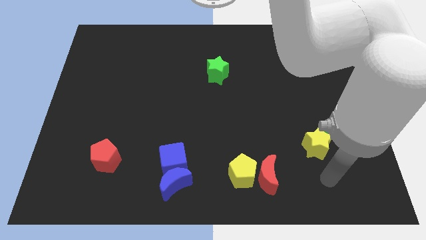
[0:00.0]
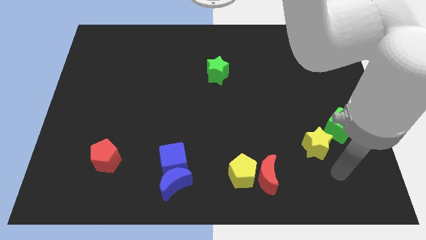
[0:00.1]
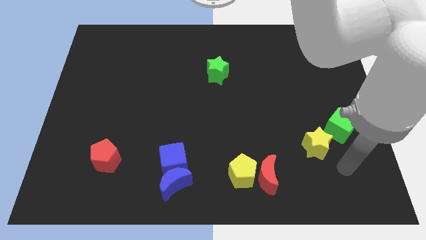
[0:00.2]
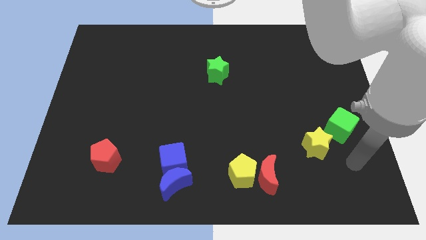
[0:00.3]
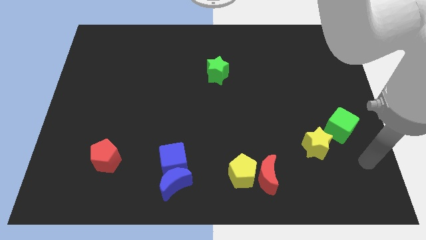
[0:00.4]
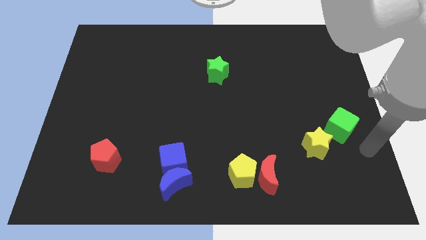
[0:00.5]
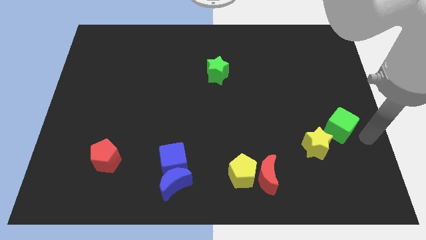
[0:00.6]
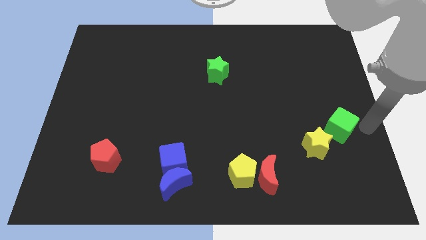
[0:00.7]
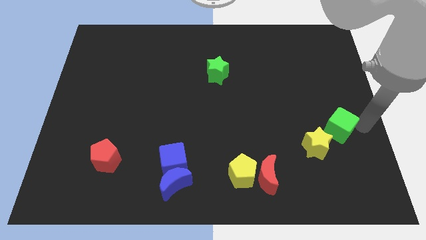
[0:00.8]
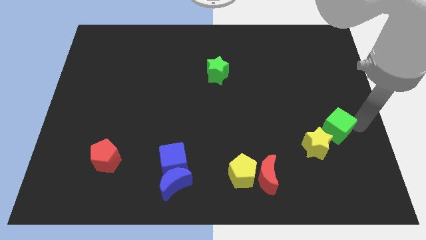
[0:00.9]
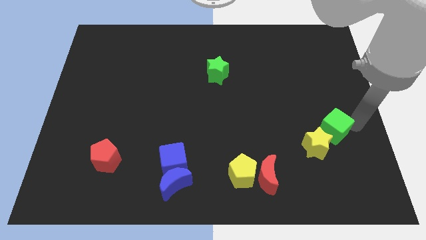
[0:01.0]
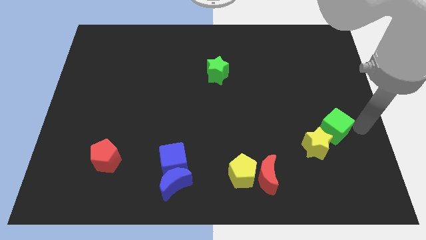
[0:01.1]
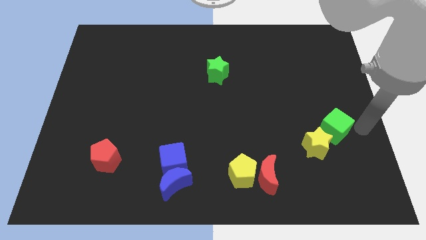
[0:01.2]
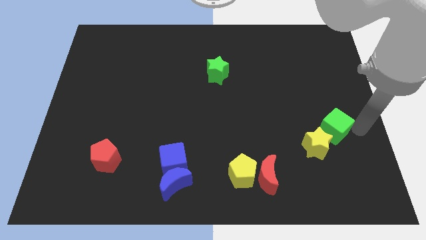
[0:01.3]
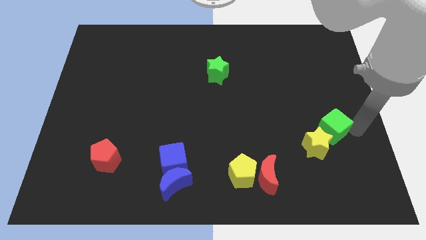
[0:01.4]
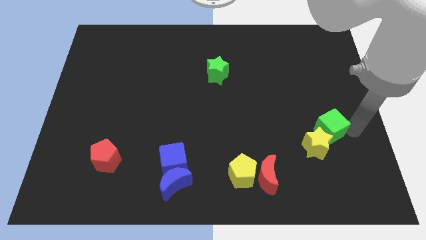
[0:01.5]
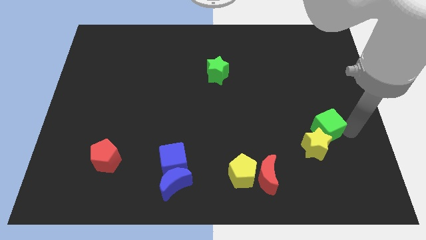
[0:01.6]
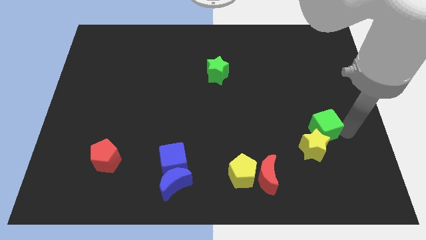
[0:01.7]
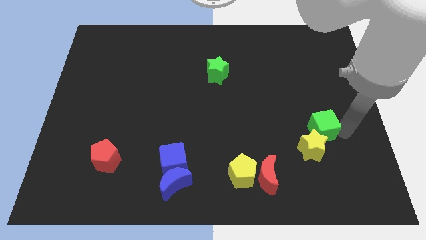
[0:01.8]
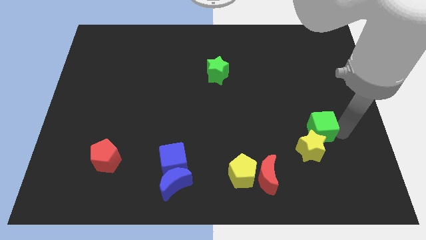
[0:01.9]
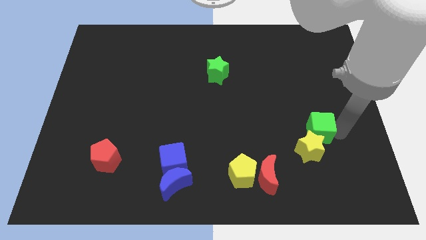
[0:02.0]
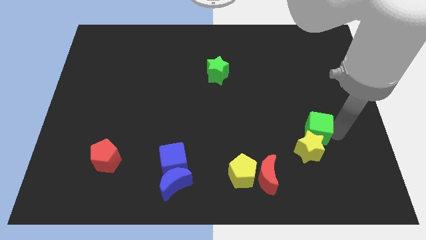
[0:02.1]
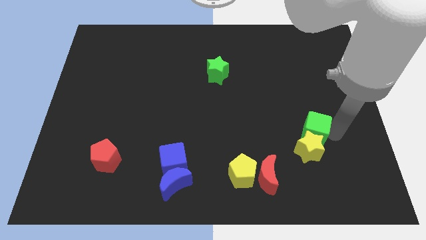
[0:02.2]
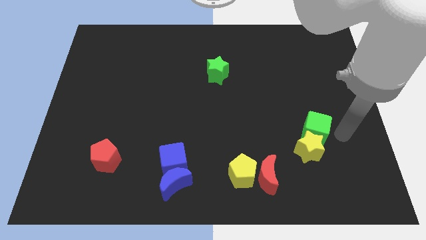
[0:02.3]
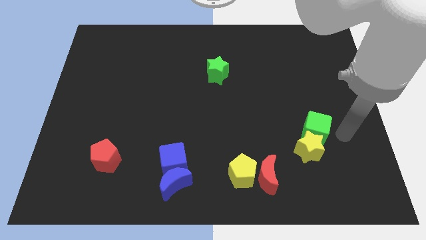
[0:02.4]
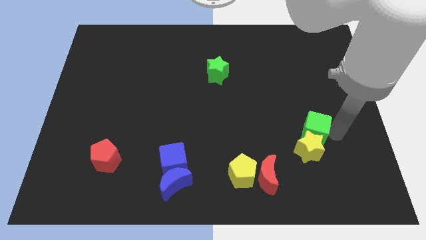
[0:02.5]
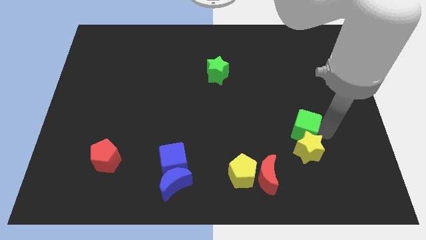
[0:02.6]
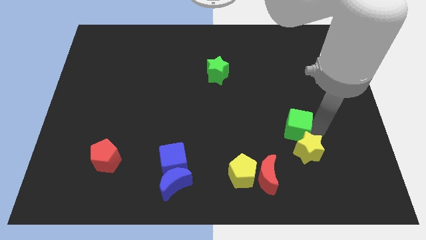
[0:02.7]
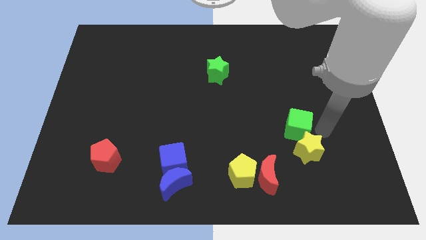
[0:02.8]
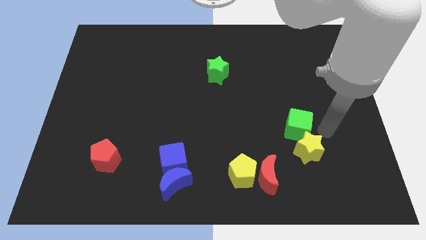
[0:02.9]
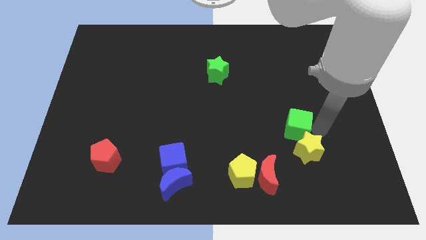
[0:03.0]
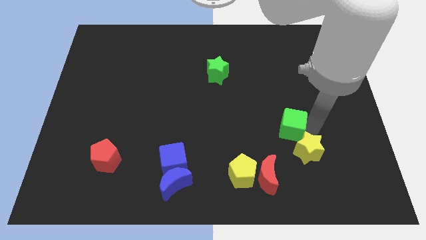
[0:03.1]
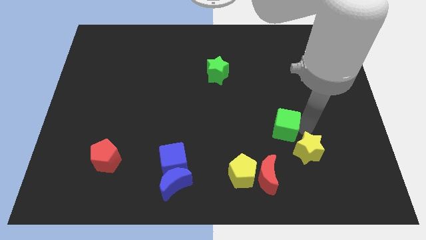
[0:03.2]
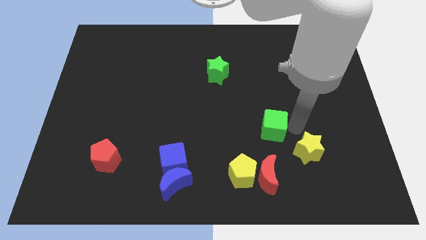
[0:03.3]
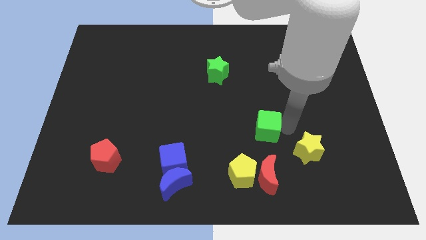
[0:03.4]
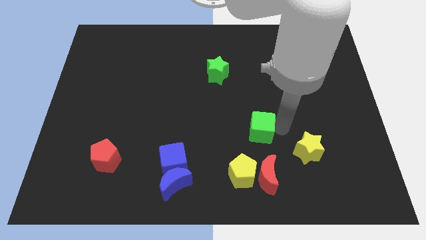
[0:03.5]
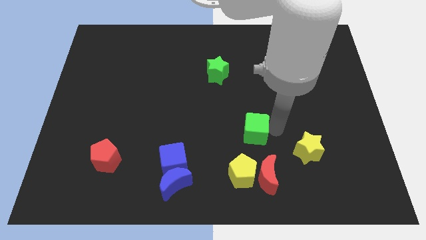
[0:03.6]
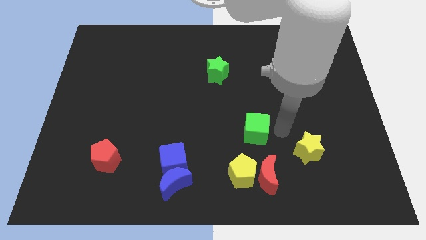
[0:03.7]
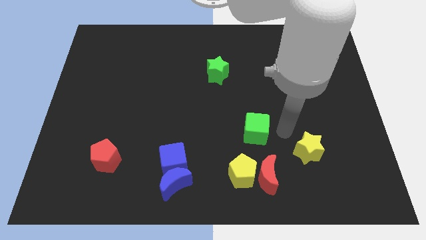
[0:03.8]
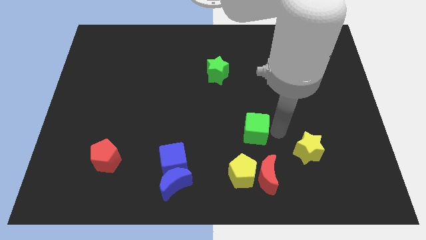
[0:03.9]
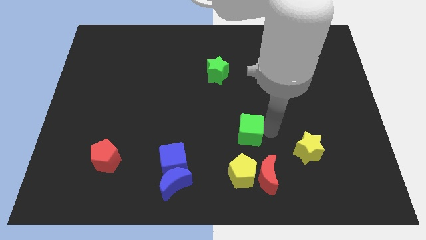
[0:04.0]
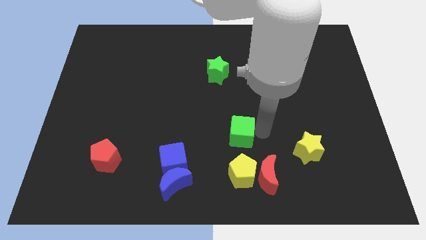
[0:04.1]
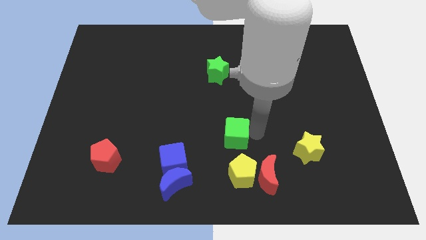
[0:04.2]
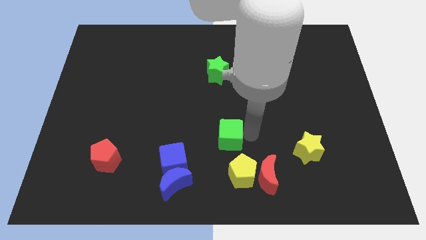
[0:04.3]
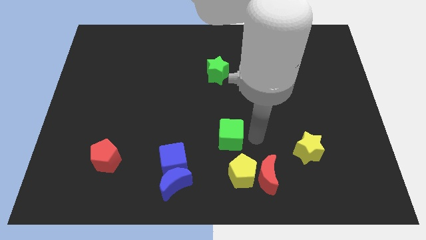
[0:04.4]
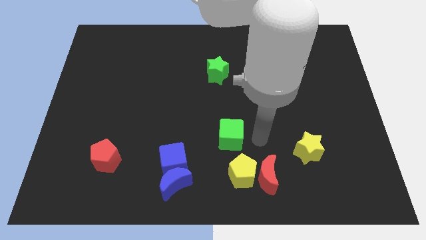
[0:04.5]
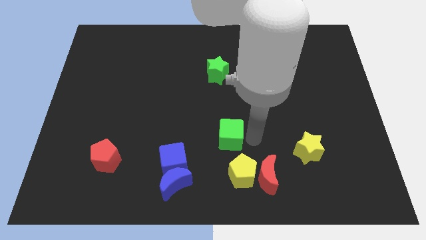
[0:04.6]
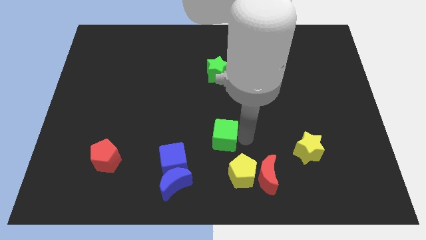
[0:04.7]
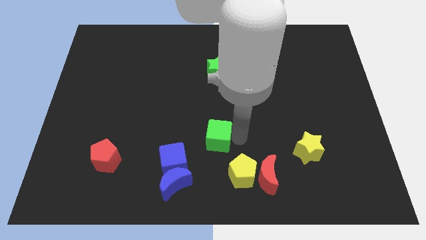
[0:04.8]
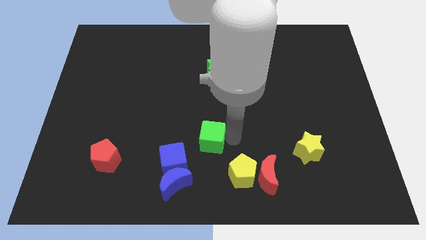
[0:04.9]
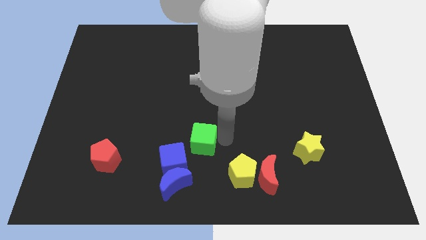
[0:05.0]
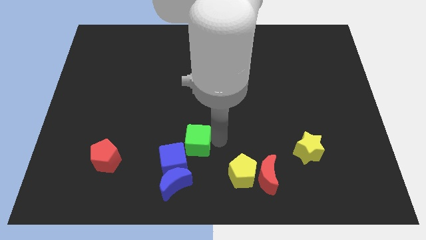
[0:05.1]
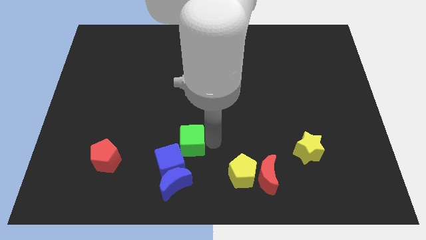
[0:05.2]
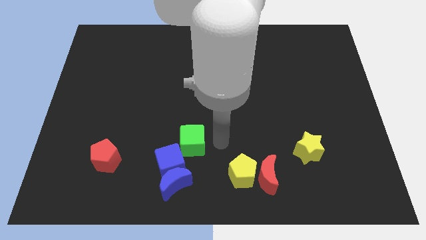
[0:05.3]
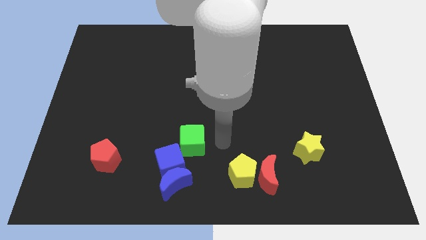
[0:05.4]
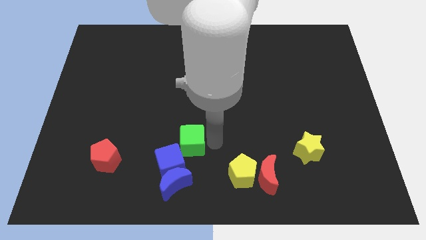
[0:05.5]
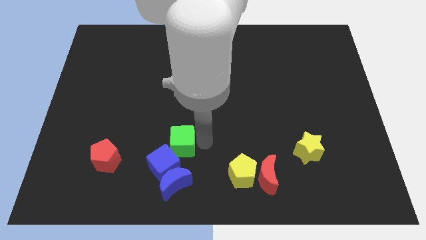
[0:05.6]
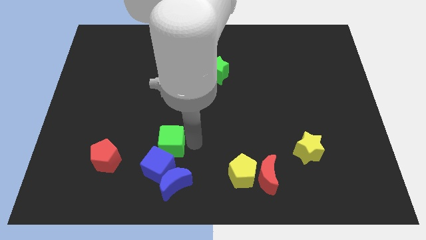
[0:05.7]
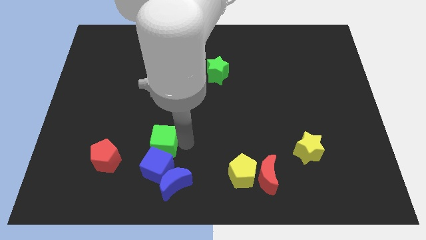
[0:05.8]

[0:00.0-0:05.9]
push the green cube to the top left side of the blue cube

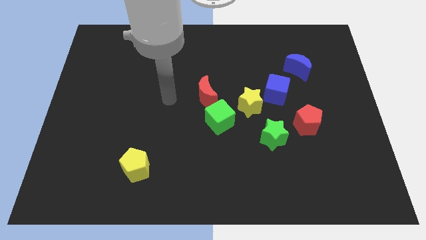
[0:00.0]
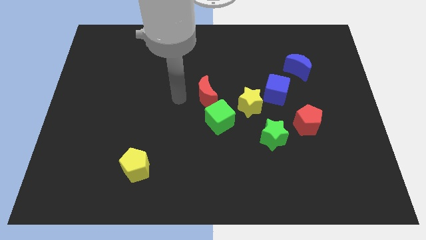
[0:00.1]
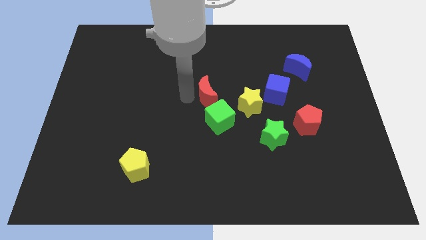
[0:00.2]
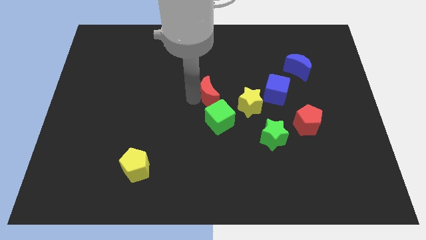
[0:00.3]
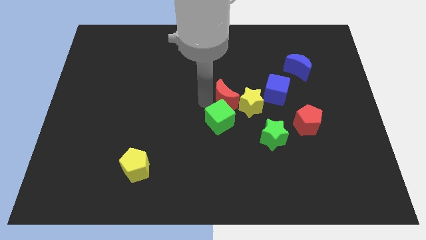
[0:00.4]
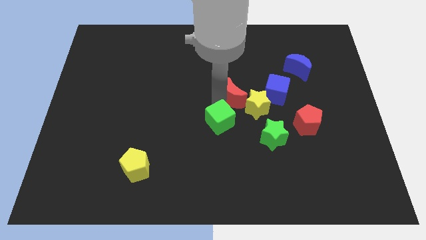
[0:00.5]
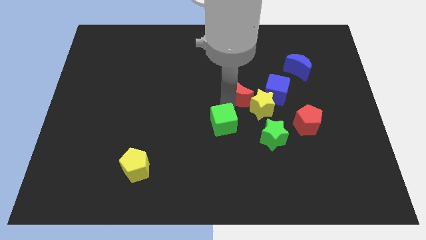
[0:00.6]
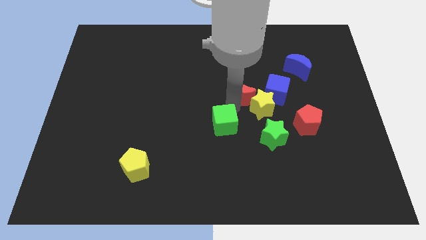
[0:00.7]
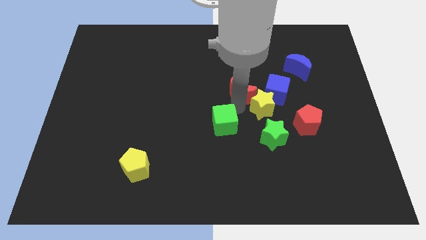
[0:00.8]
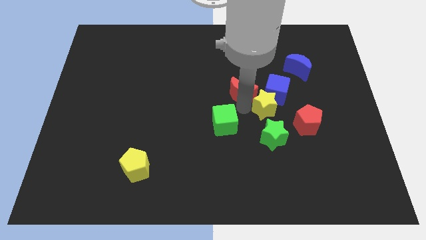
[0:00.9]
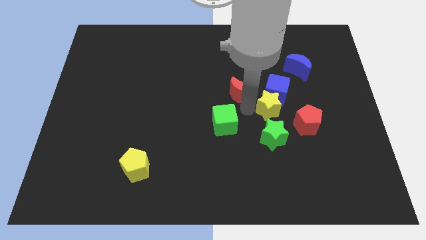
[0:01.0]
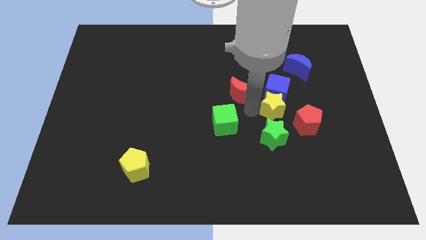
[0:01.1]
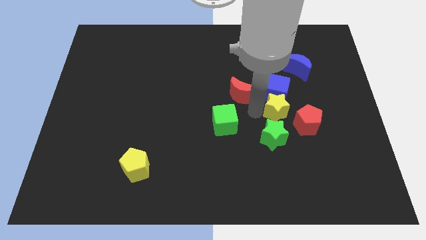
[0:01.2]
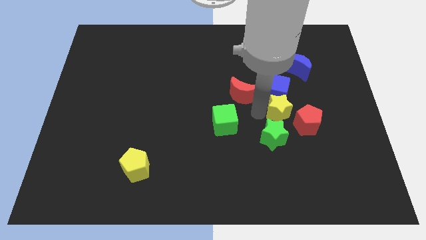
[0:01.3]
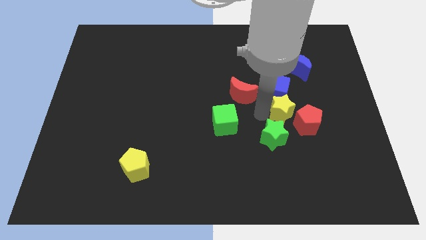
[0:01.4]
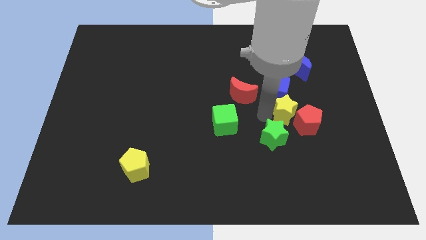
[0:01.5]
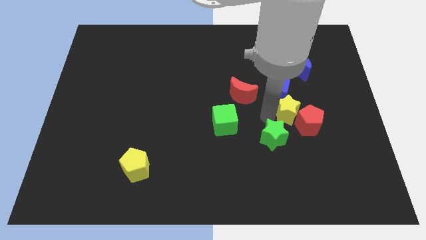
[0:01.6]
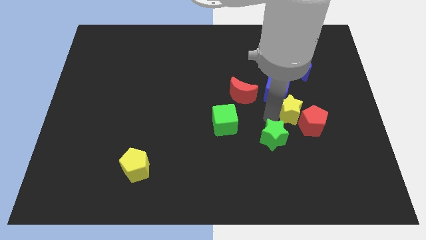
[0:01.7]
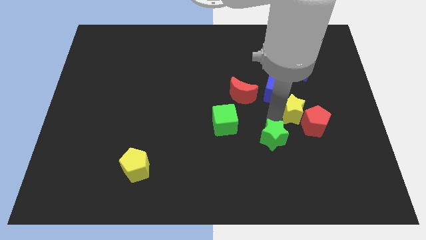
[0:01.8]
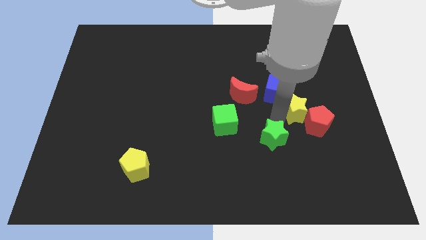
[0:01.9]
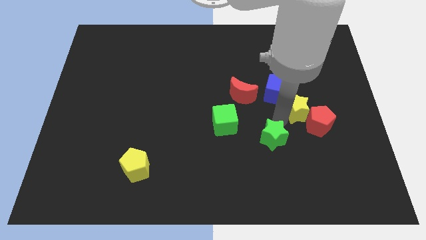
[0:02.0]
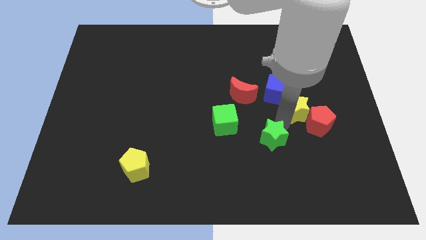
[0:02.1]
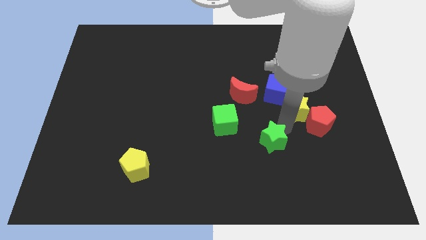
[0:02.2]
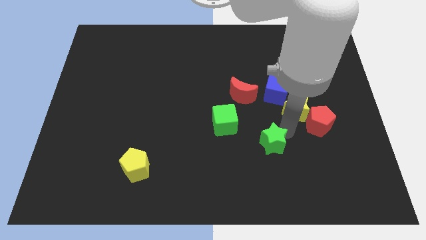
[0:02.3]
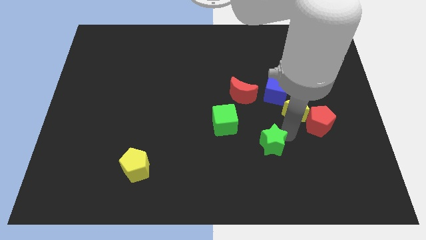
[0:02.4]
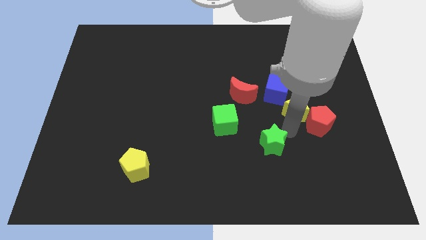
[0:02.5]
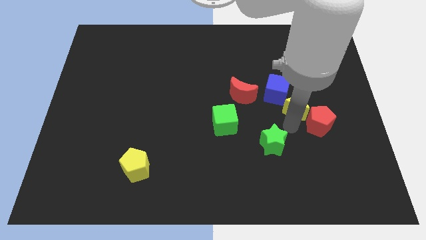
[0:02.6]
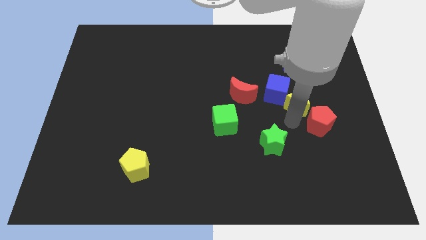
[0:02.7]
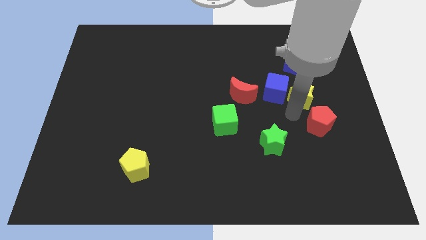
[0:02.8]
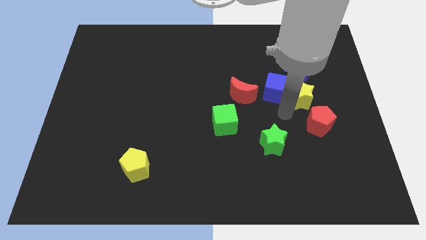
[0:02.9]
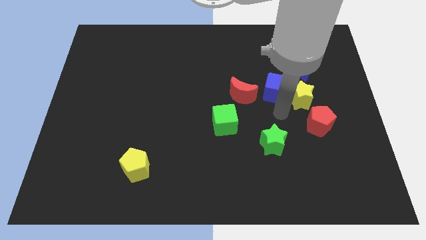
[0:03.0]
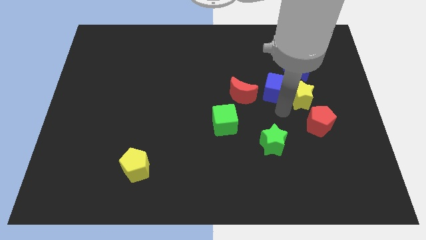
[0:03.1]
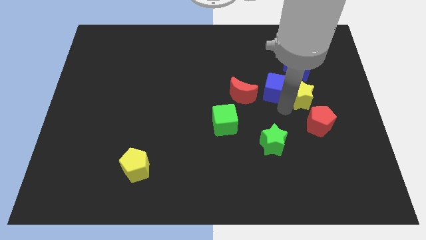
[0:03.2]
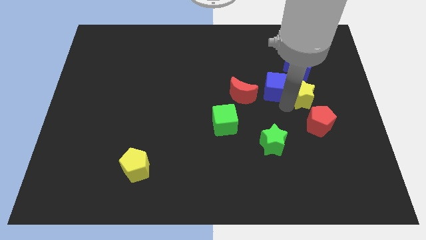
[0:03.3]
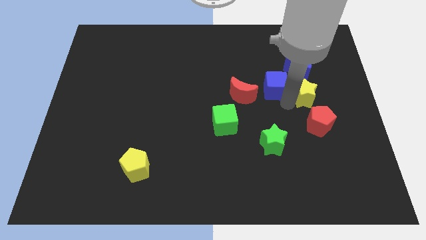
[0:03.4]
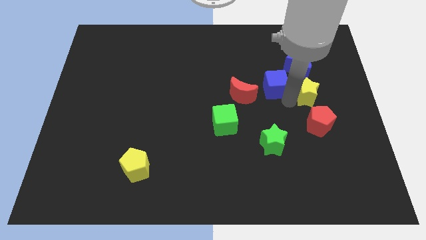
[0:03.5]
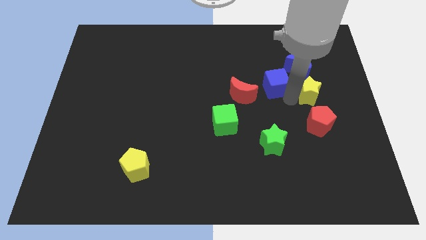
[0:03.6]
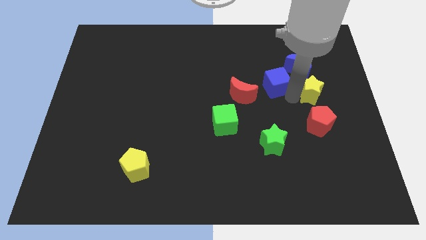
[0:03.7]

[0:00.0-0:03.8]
slide the yellow star to the bottom right side of the blue moon
